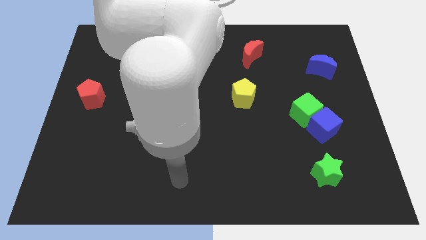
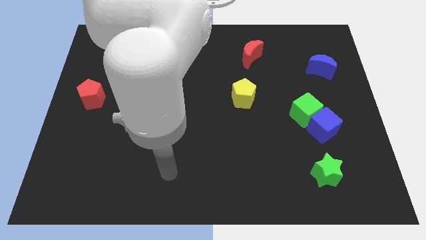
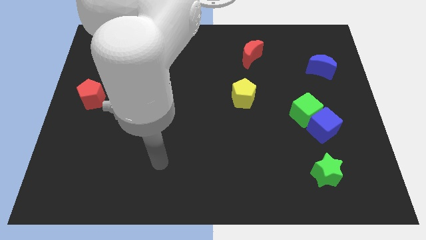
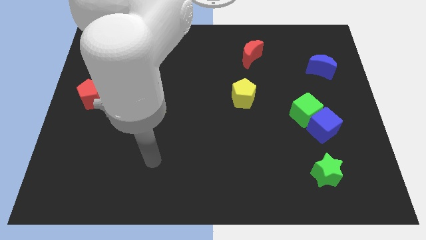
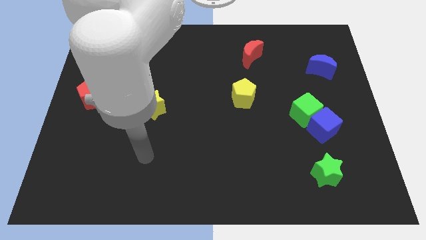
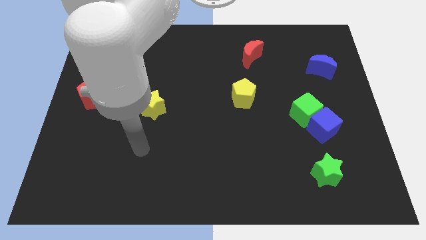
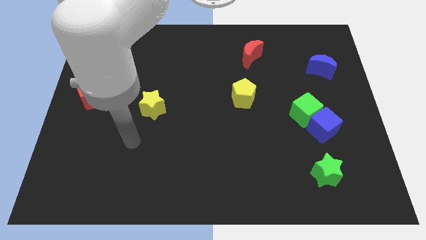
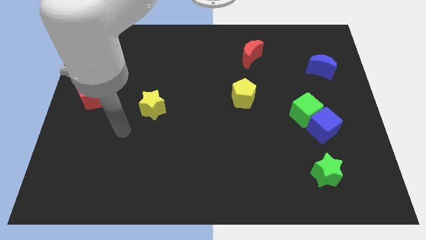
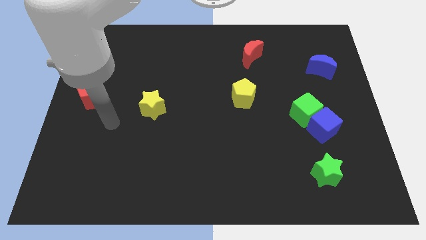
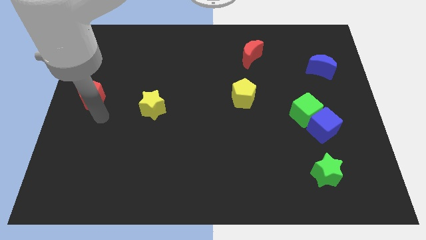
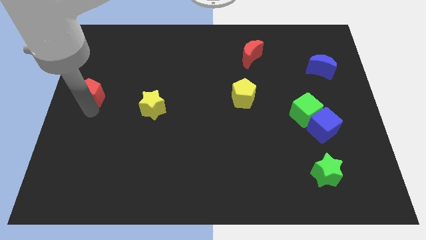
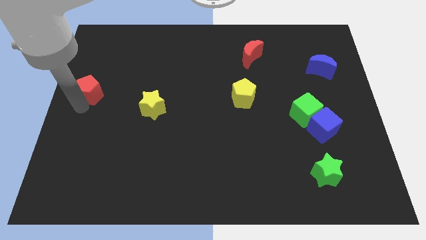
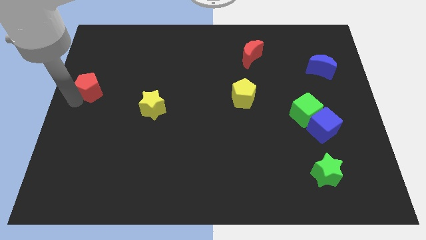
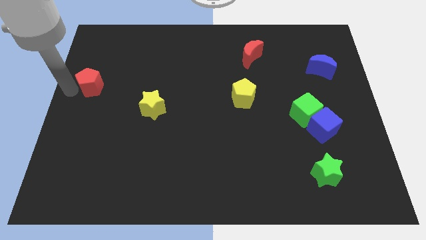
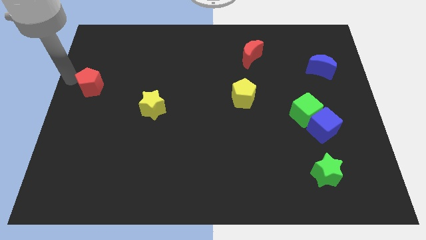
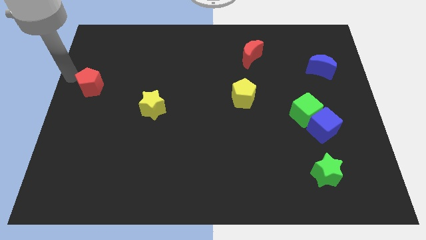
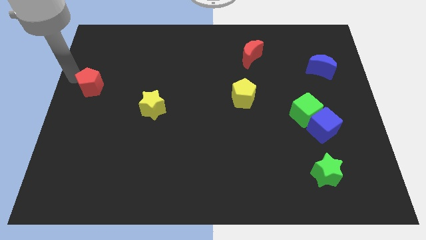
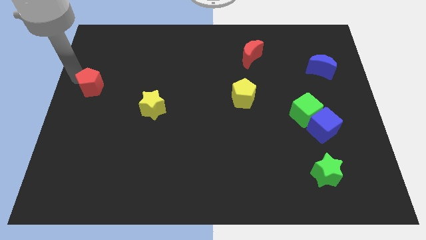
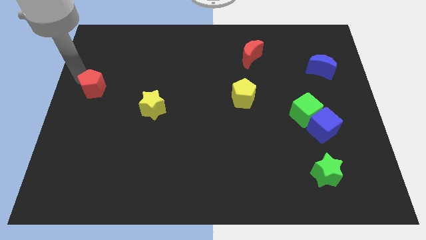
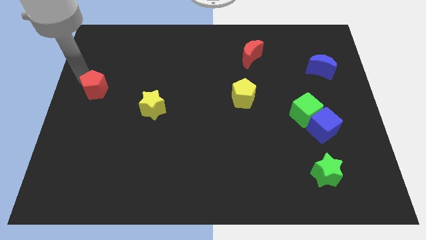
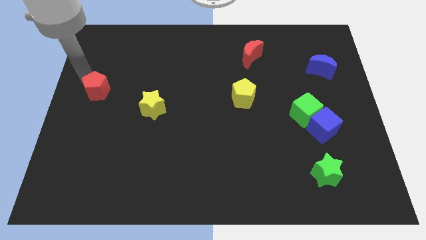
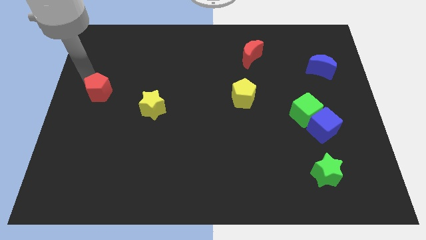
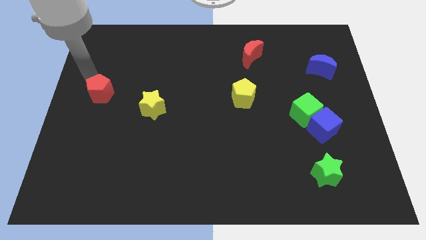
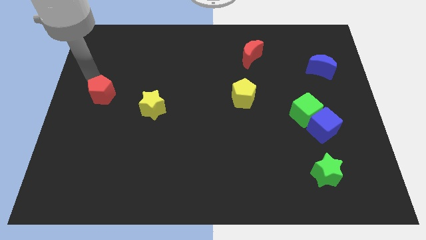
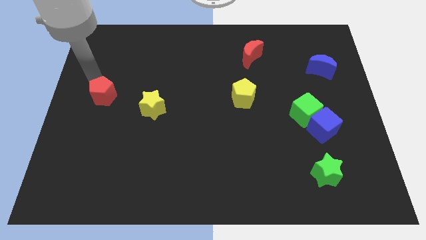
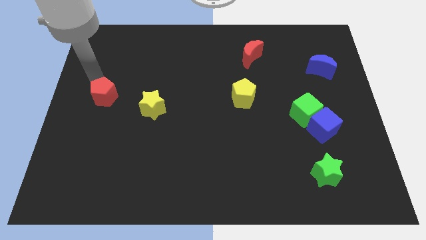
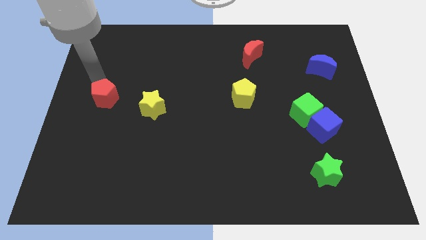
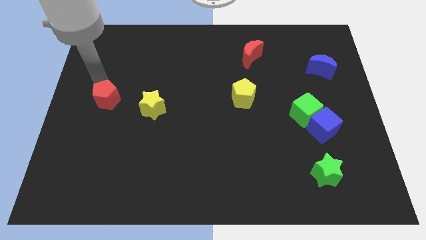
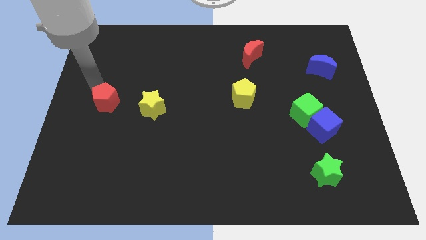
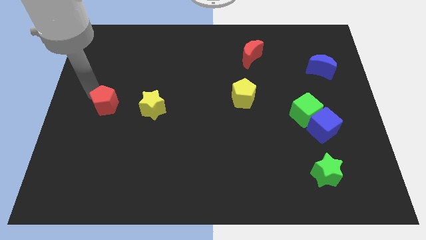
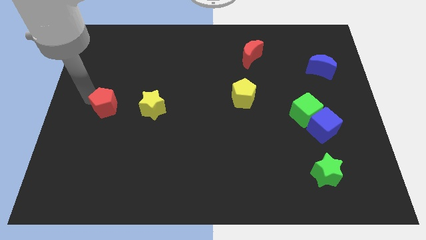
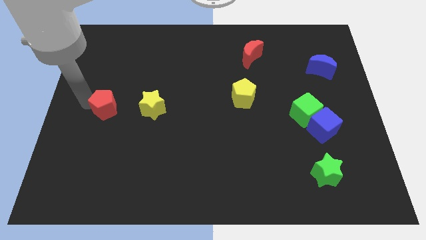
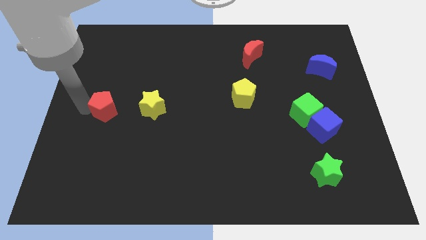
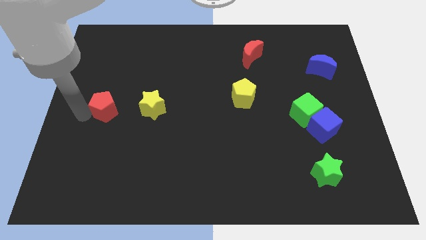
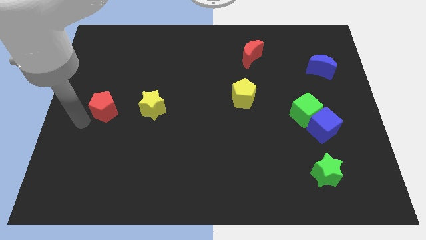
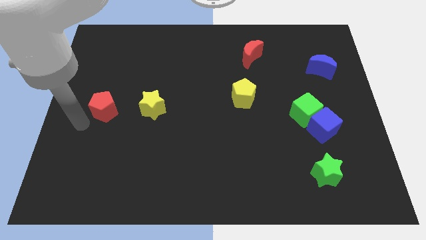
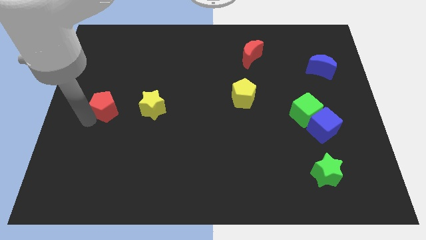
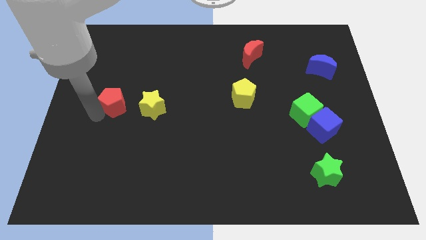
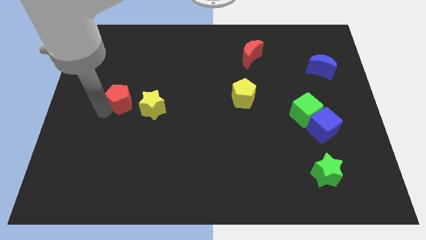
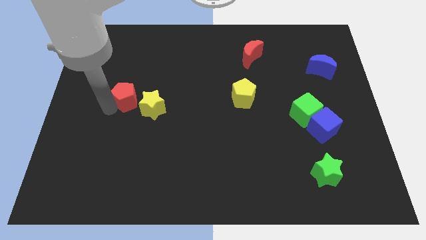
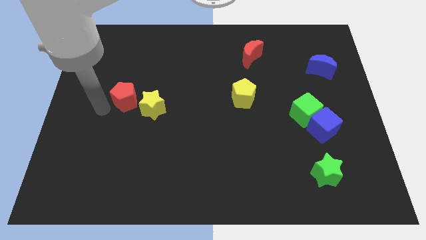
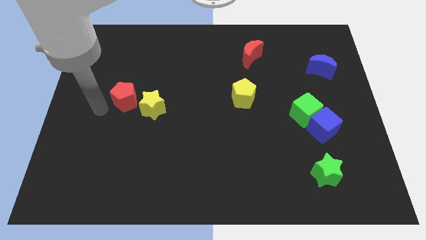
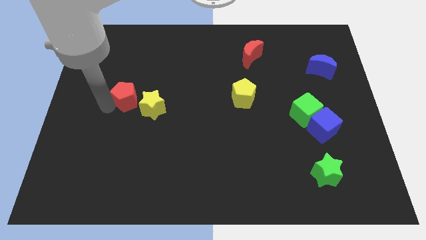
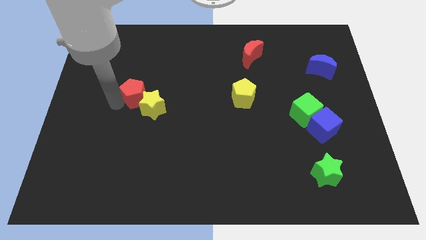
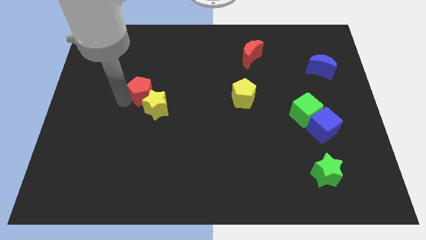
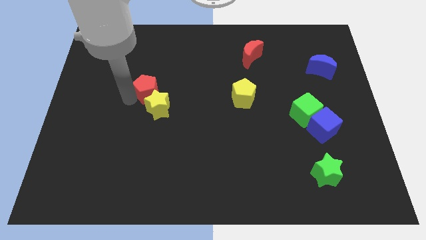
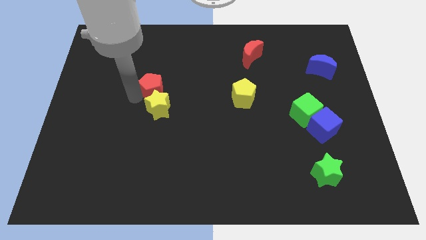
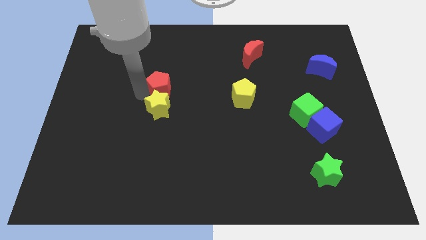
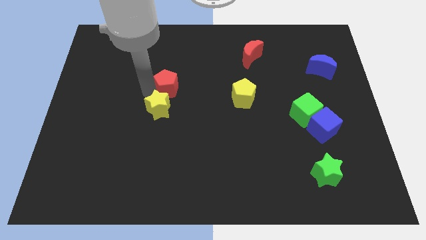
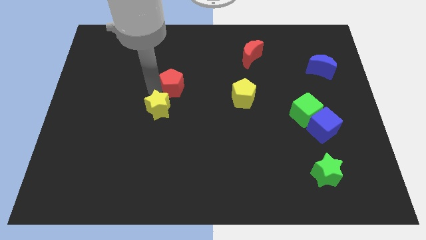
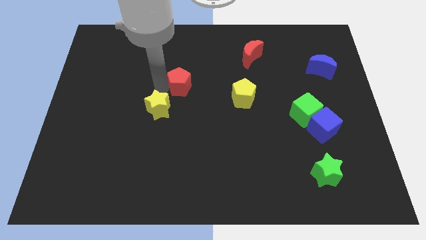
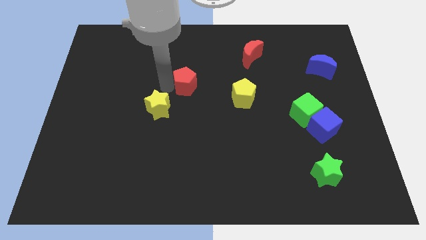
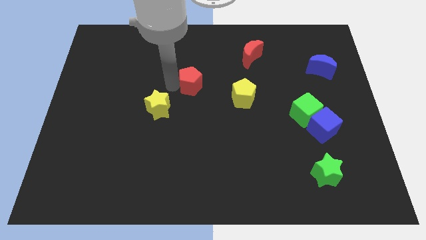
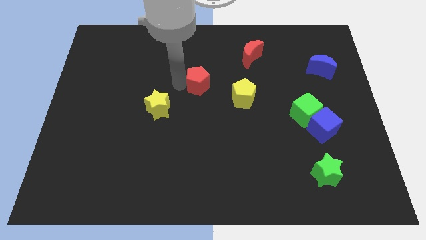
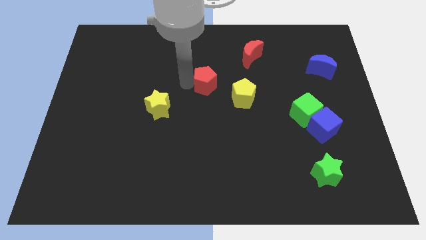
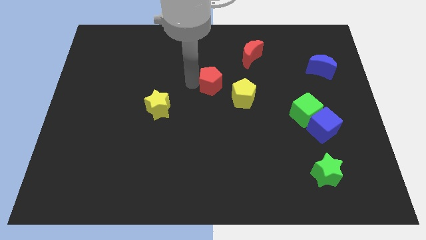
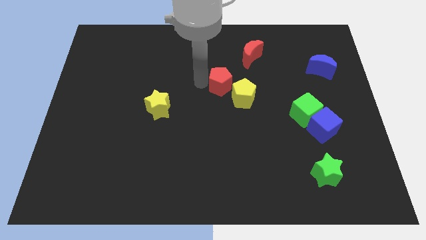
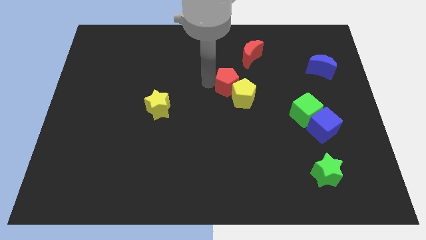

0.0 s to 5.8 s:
slide the red pentagon to the yellow pentagon

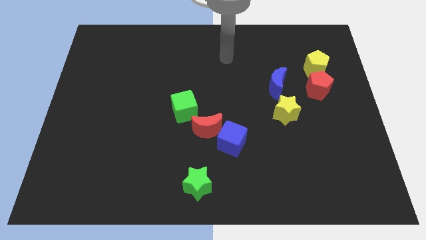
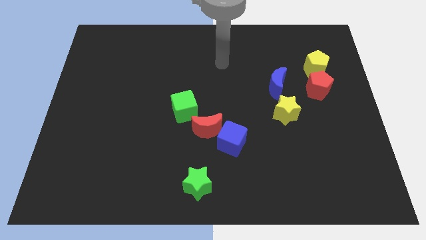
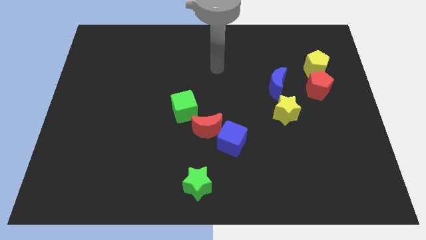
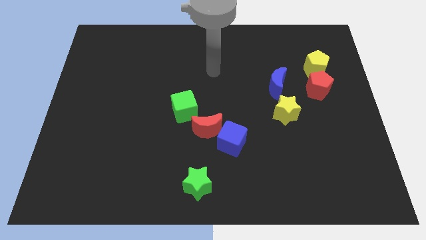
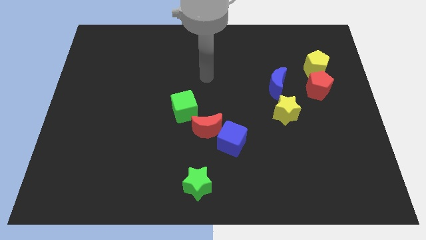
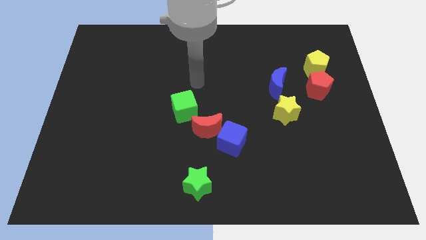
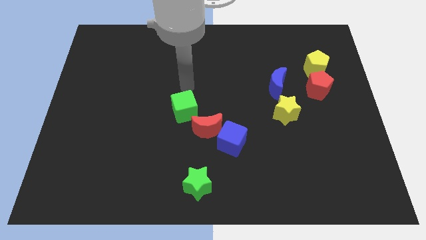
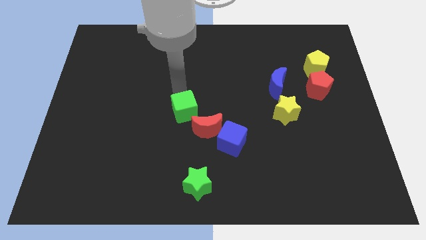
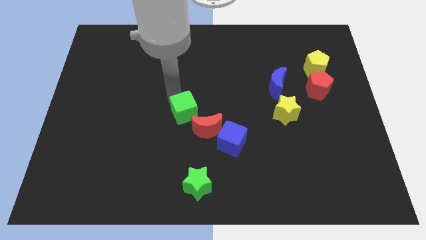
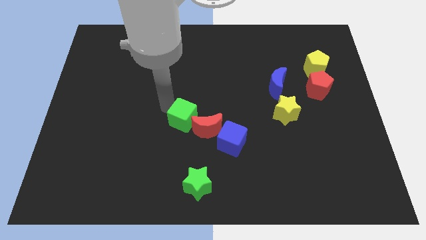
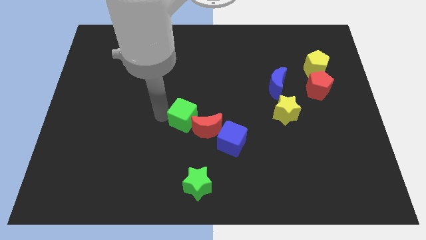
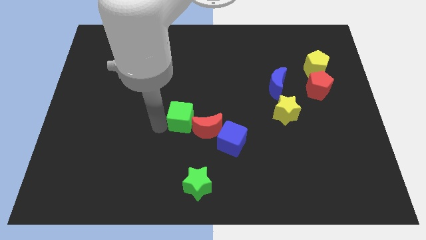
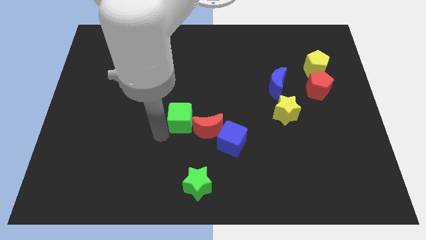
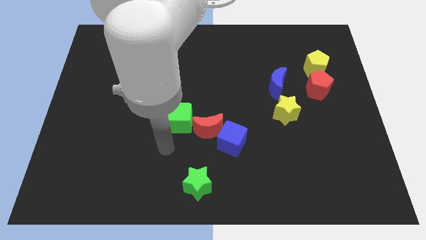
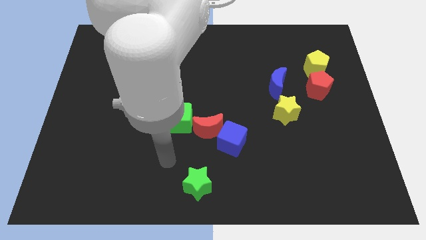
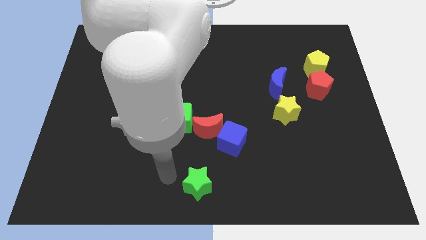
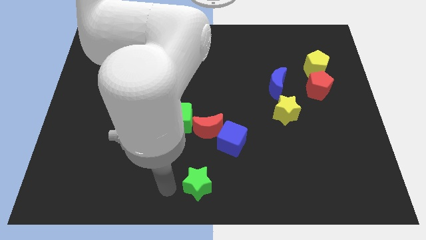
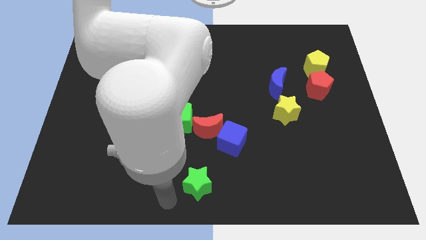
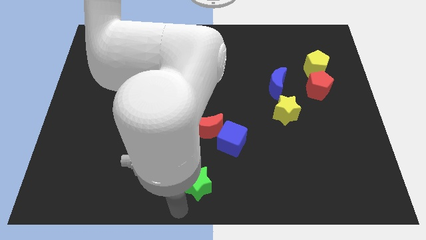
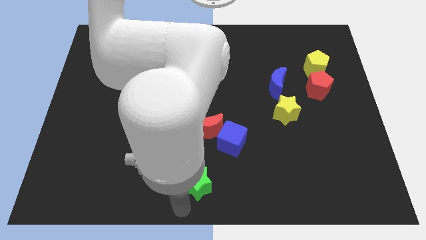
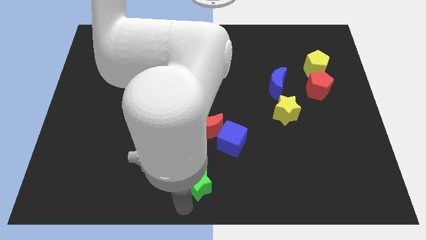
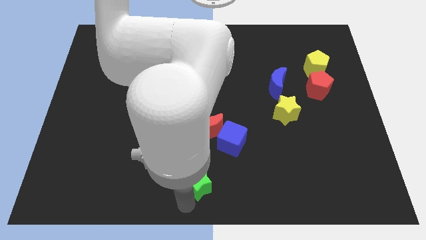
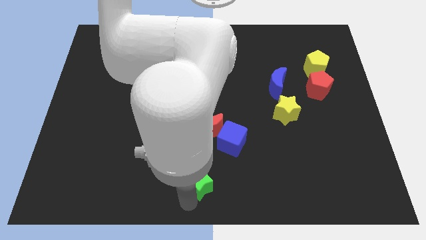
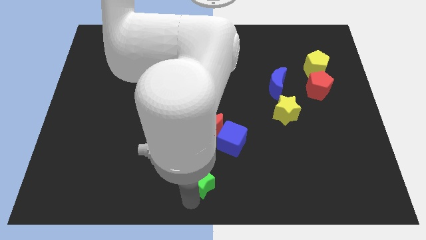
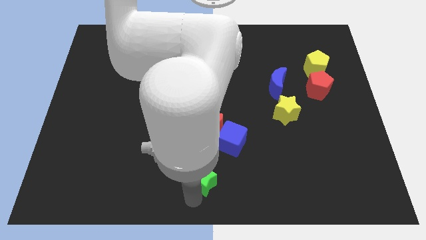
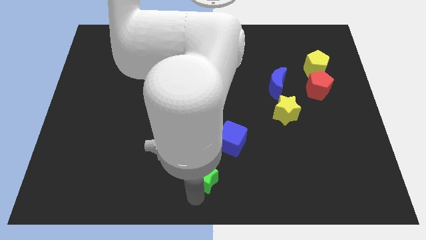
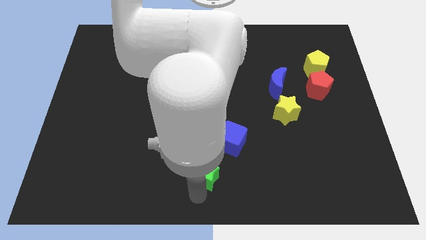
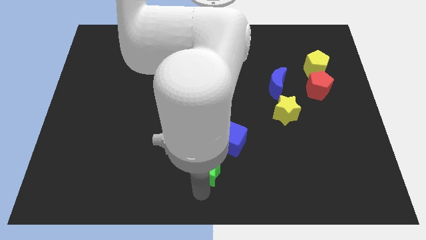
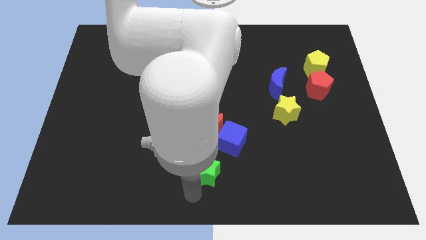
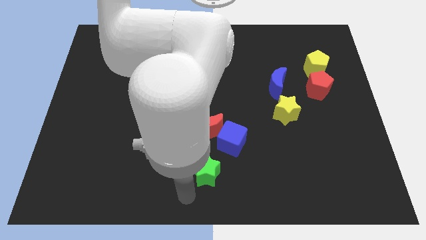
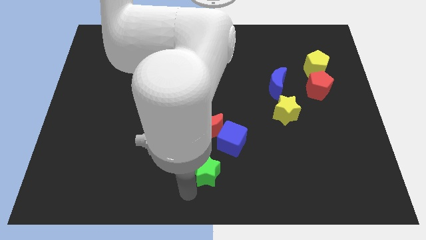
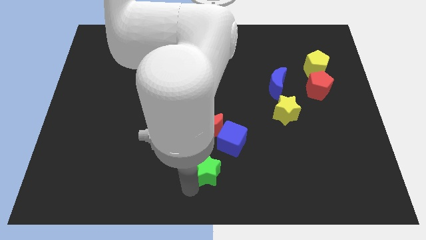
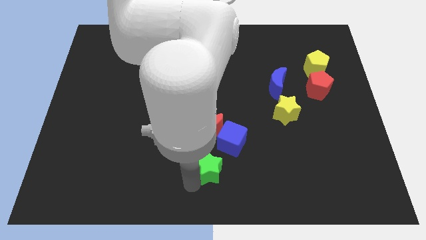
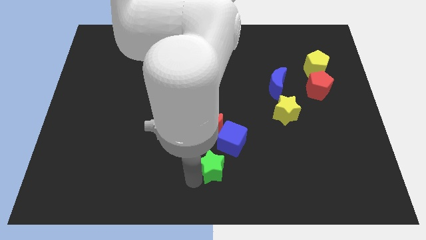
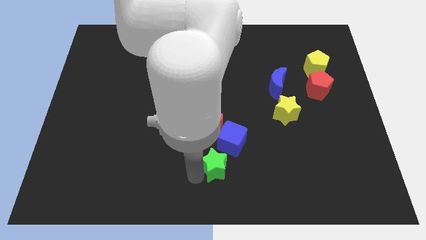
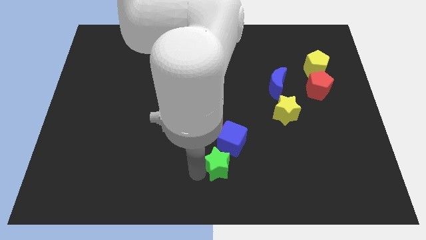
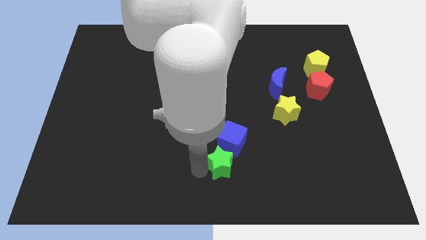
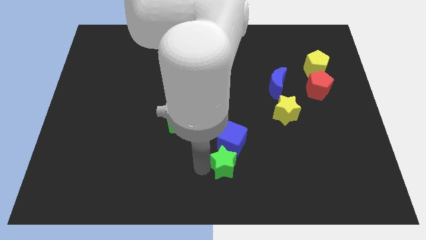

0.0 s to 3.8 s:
slide the green star to the blue cube
